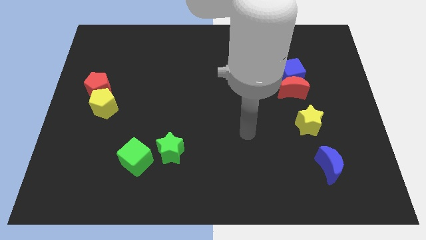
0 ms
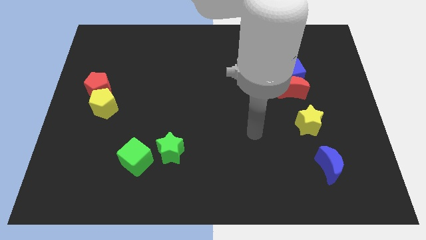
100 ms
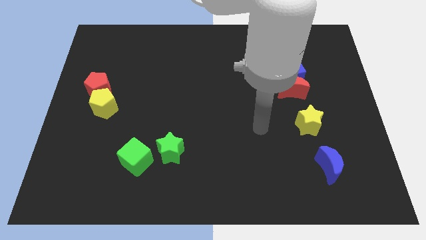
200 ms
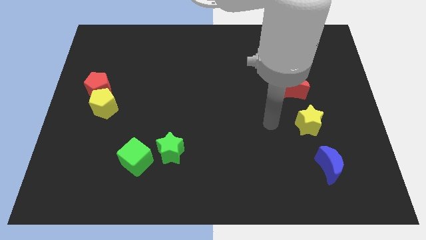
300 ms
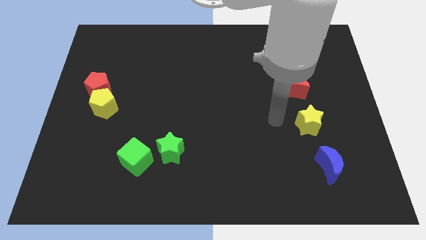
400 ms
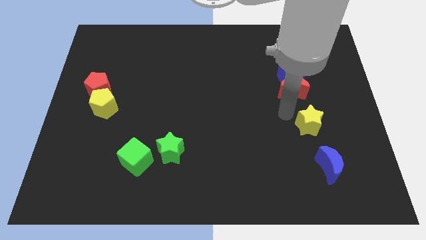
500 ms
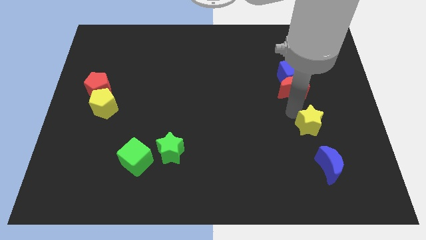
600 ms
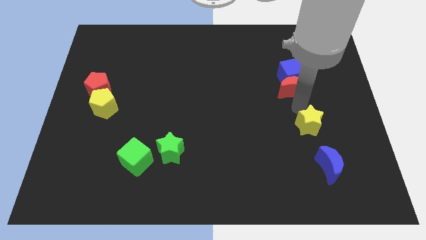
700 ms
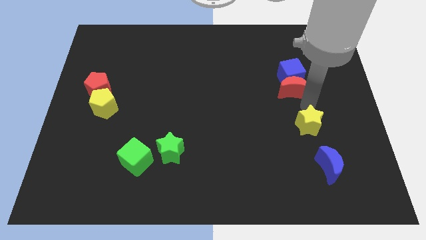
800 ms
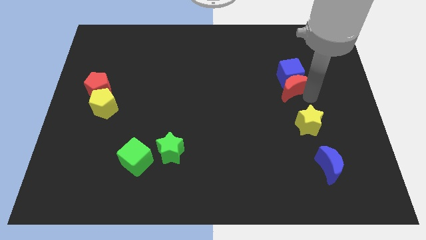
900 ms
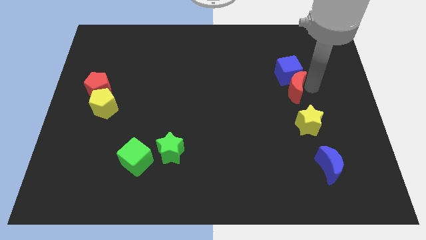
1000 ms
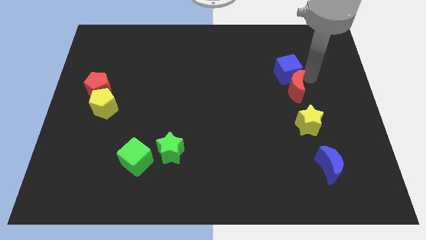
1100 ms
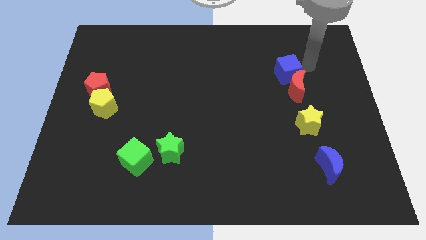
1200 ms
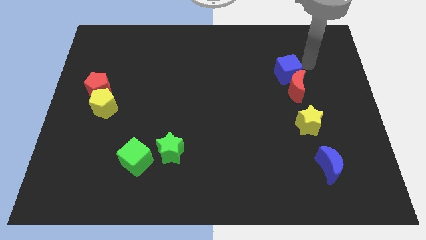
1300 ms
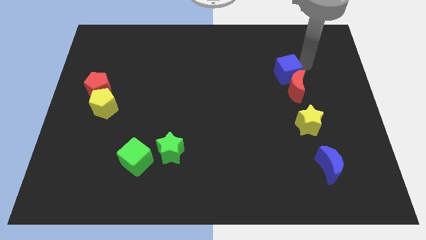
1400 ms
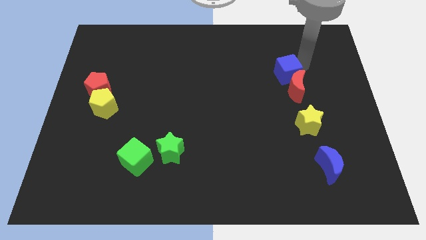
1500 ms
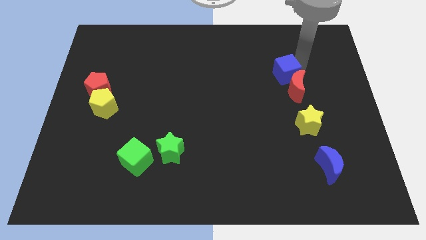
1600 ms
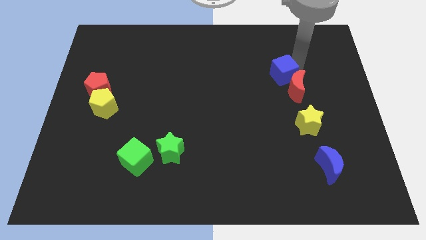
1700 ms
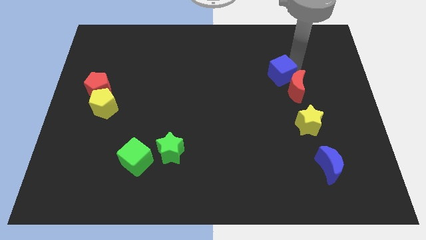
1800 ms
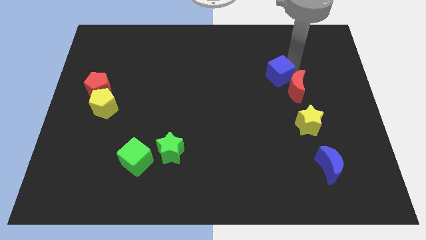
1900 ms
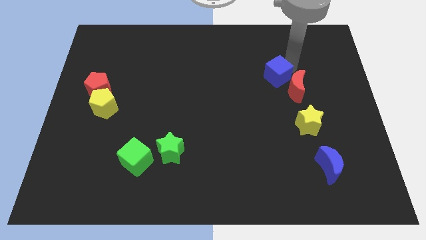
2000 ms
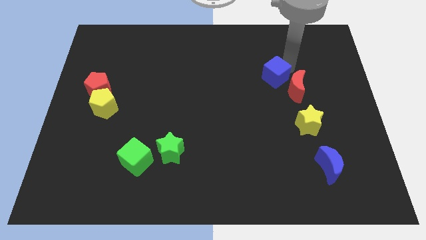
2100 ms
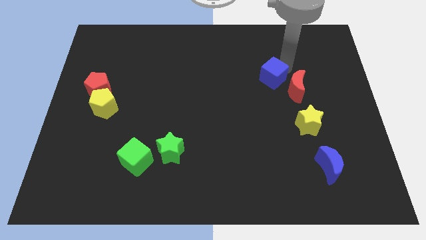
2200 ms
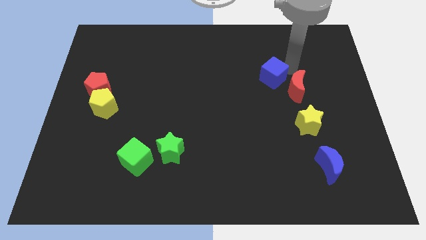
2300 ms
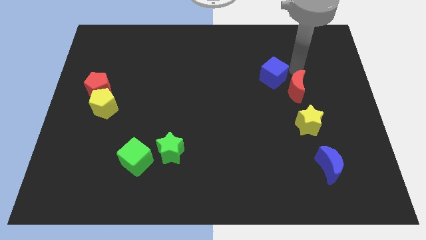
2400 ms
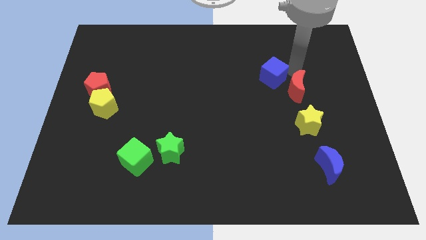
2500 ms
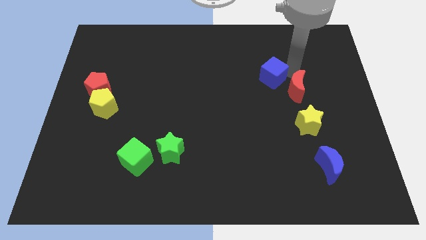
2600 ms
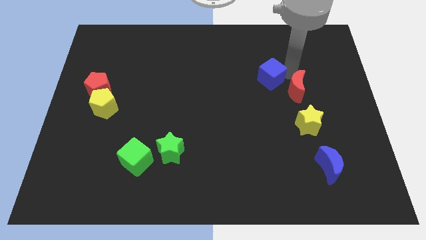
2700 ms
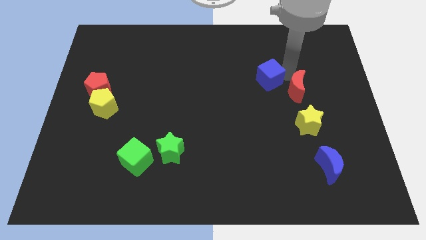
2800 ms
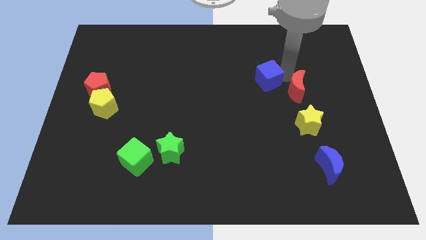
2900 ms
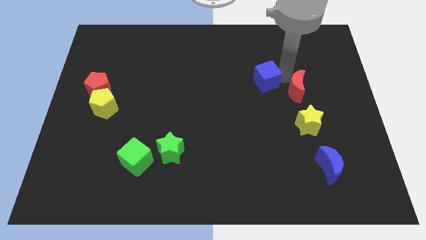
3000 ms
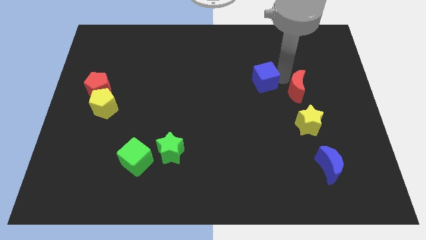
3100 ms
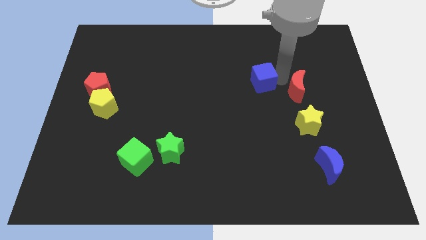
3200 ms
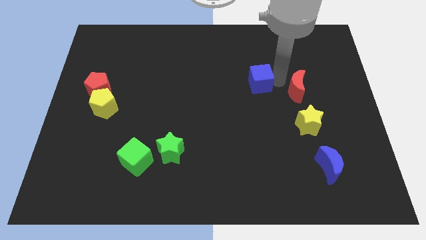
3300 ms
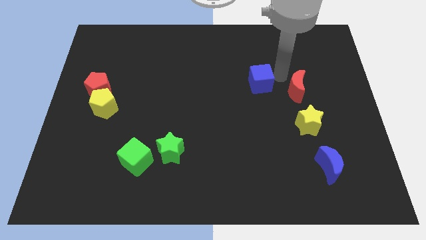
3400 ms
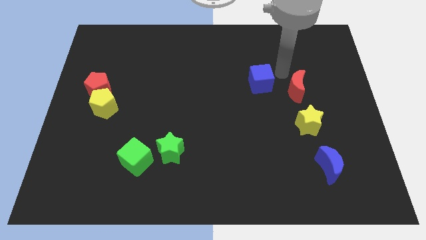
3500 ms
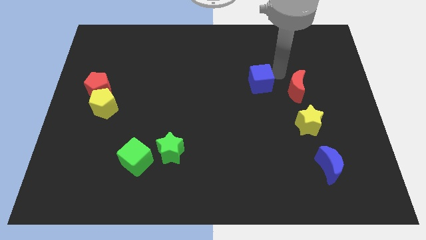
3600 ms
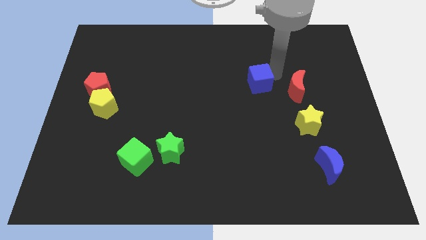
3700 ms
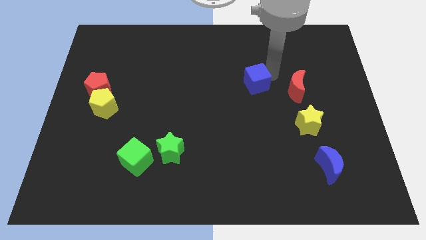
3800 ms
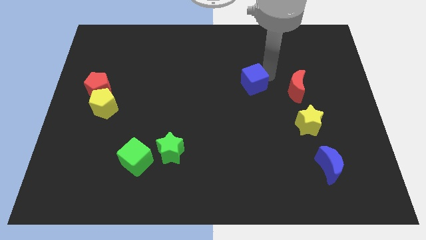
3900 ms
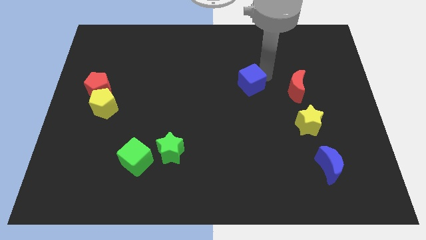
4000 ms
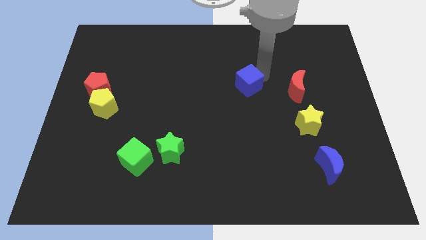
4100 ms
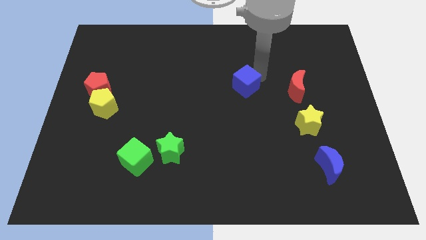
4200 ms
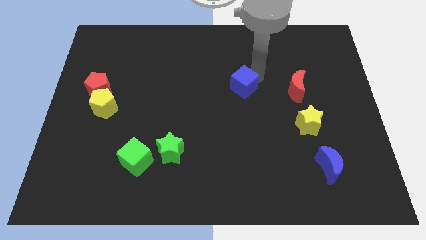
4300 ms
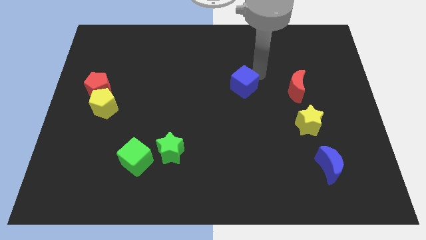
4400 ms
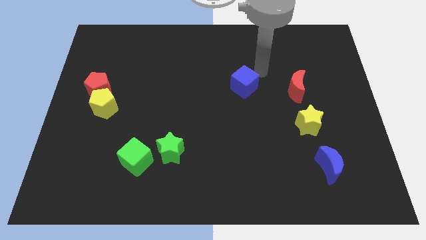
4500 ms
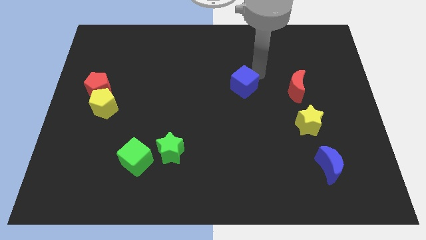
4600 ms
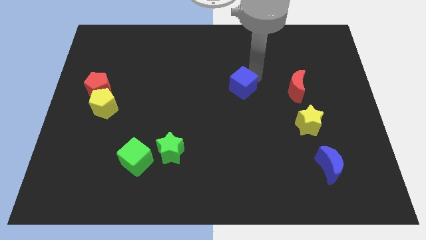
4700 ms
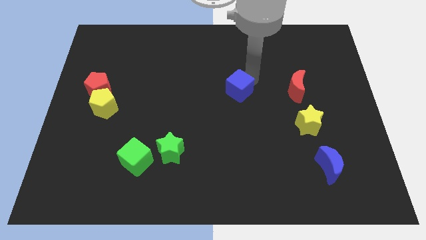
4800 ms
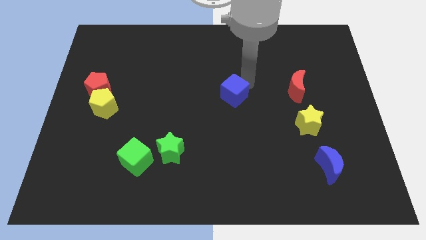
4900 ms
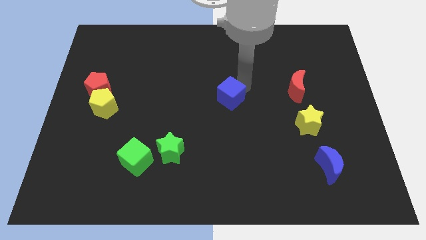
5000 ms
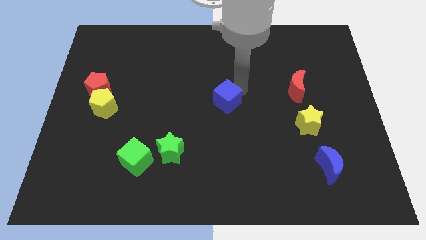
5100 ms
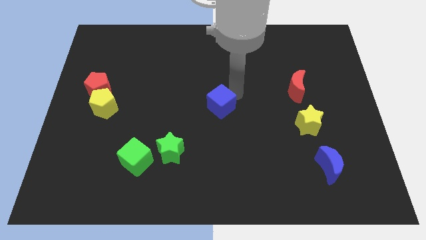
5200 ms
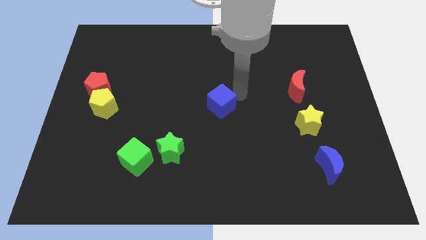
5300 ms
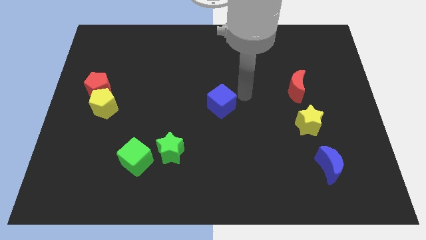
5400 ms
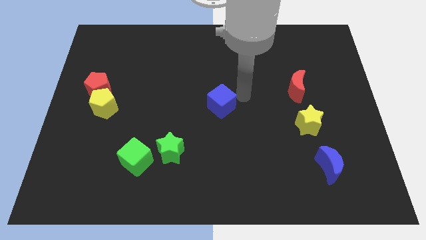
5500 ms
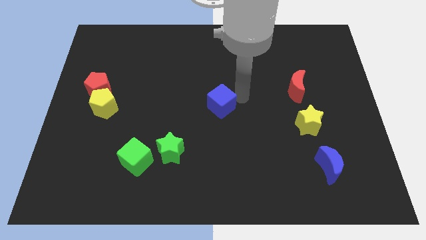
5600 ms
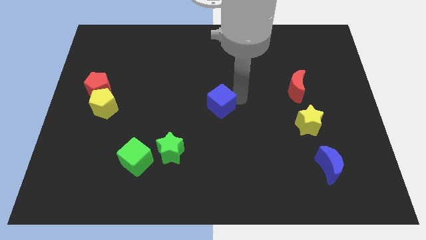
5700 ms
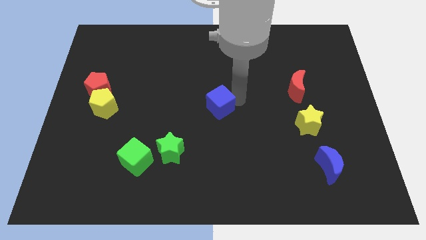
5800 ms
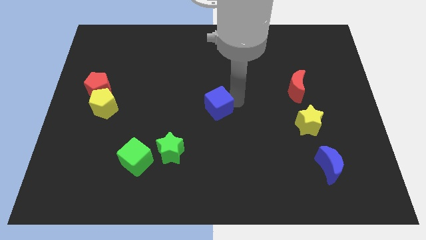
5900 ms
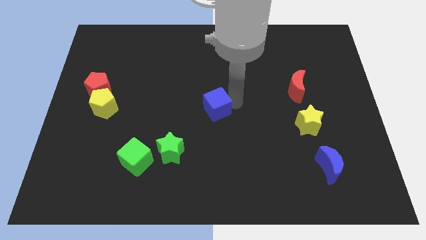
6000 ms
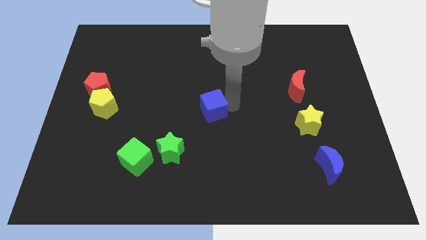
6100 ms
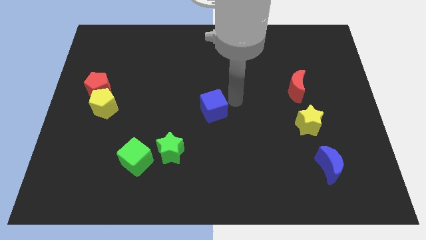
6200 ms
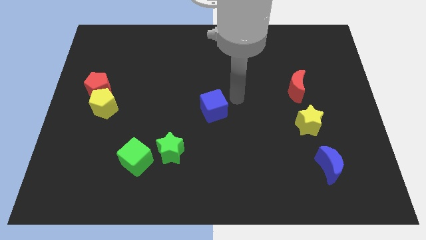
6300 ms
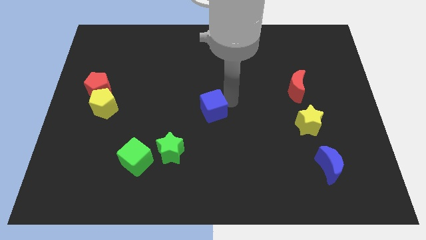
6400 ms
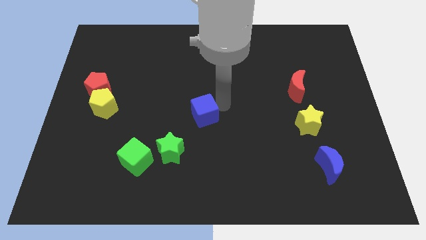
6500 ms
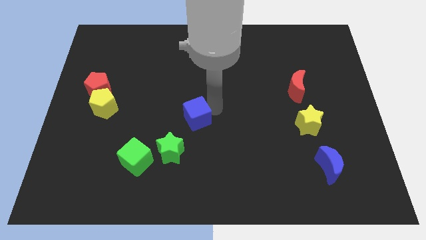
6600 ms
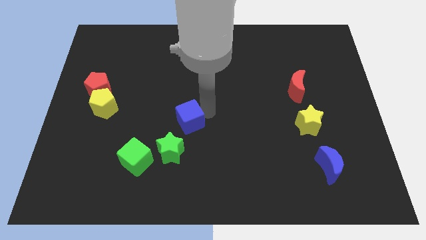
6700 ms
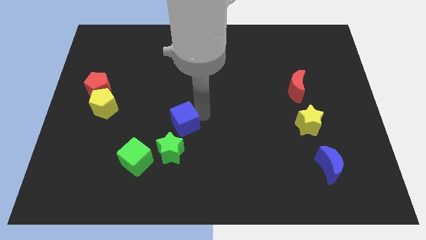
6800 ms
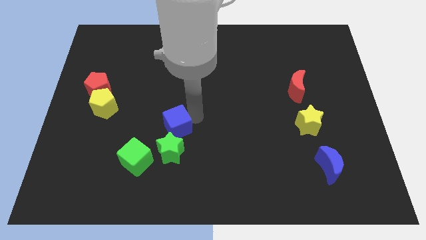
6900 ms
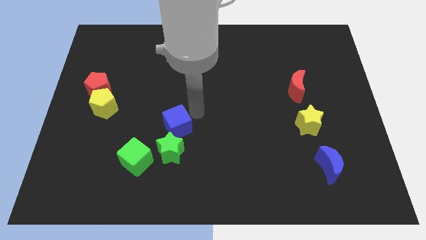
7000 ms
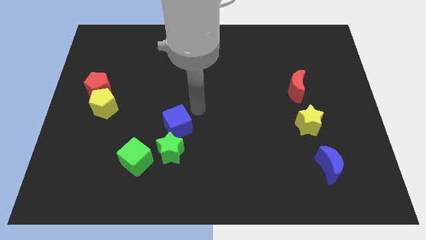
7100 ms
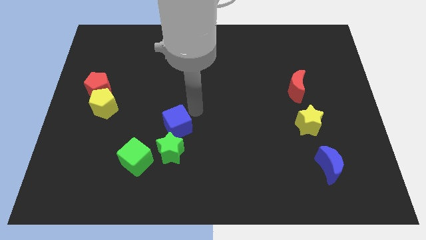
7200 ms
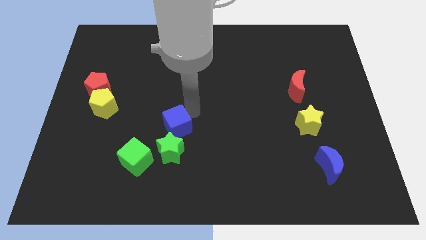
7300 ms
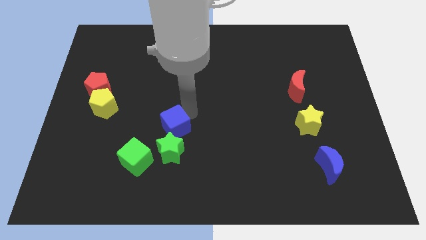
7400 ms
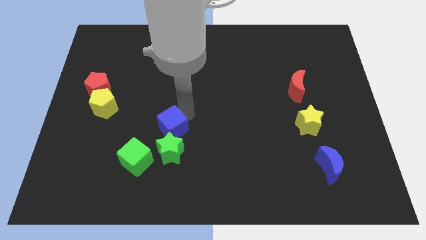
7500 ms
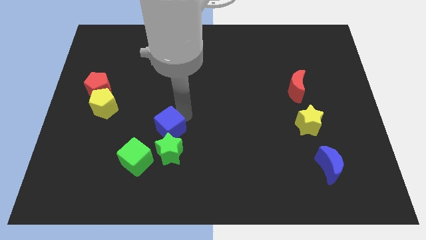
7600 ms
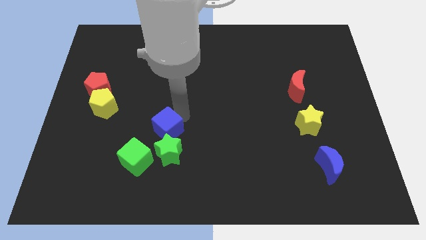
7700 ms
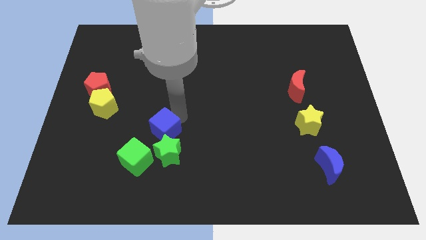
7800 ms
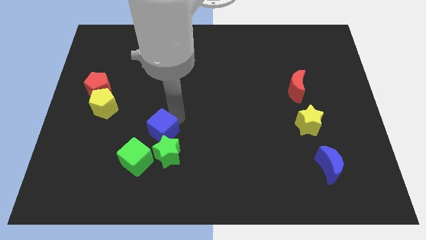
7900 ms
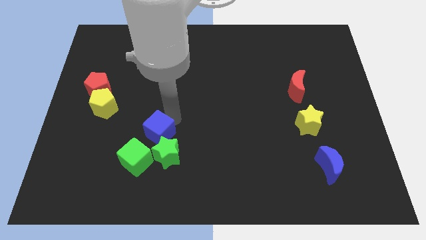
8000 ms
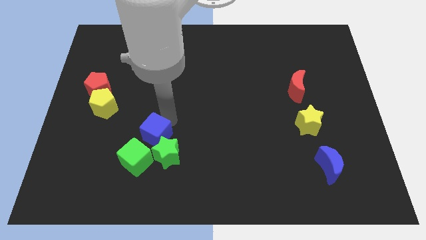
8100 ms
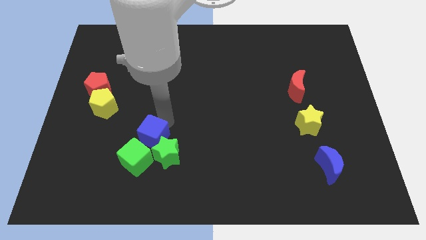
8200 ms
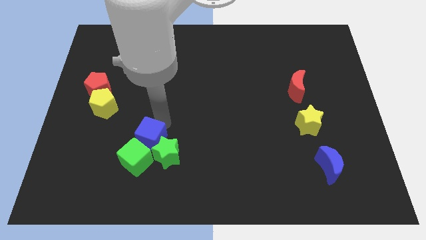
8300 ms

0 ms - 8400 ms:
push the blue cube to the green cube
